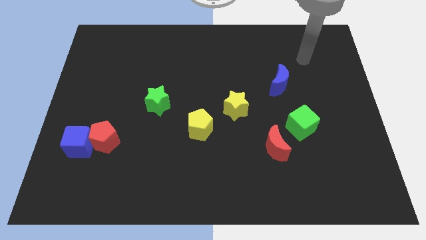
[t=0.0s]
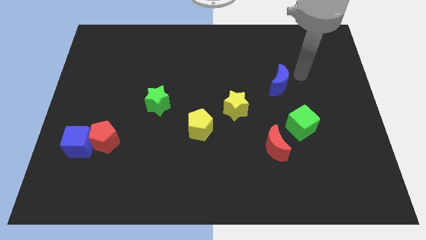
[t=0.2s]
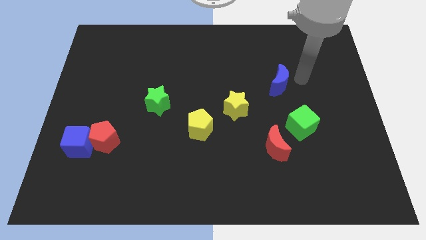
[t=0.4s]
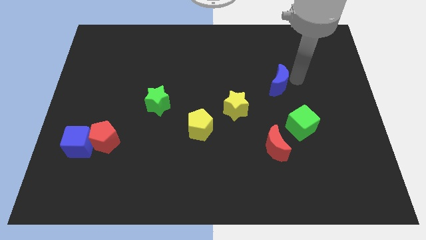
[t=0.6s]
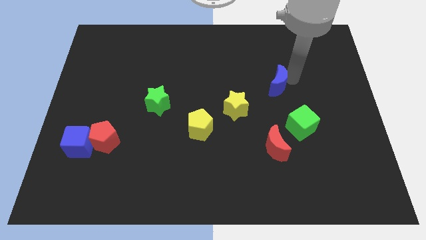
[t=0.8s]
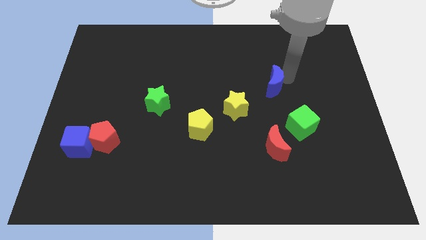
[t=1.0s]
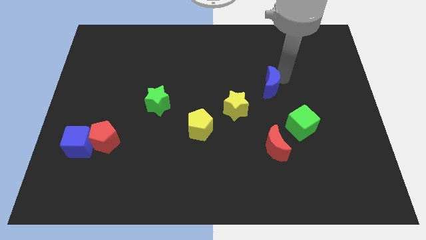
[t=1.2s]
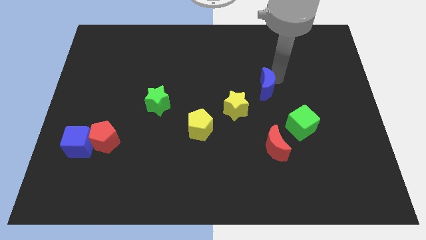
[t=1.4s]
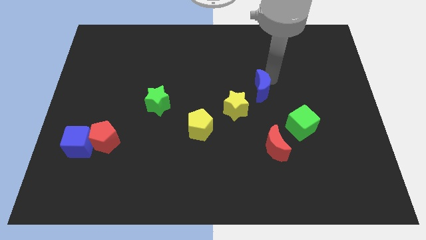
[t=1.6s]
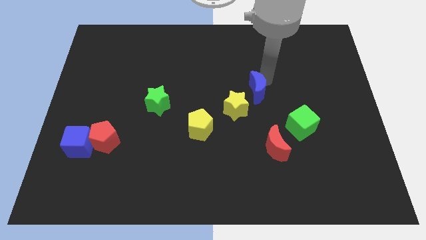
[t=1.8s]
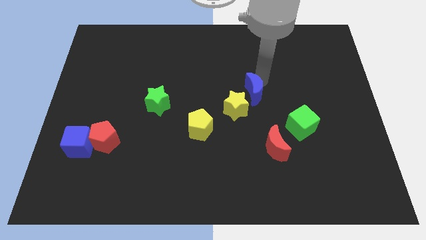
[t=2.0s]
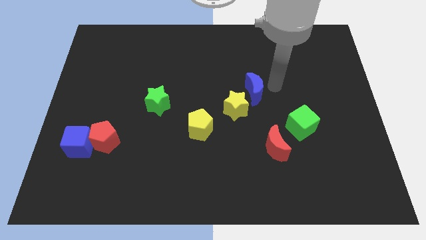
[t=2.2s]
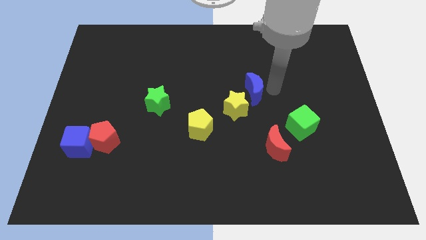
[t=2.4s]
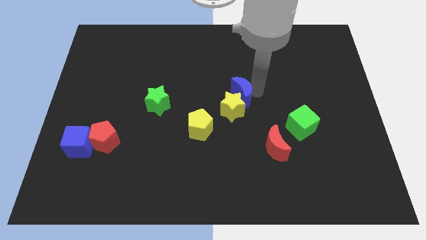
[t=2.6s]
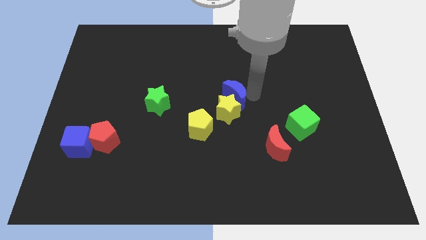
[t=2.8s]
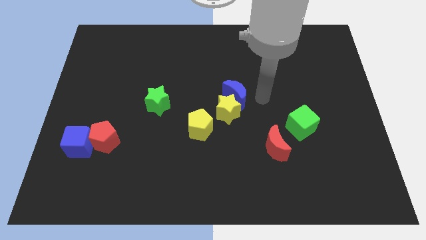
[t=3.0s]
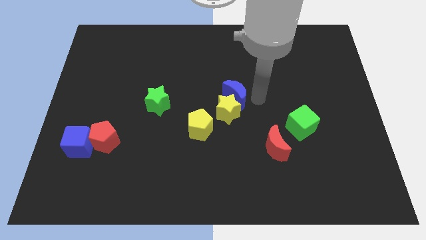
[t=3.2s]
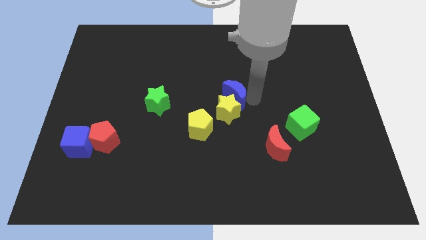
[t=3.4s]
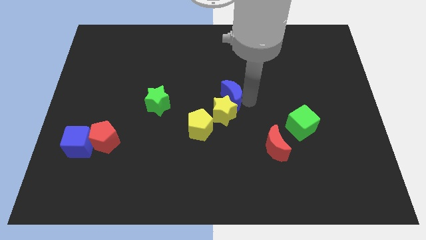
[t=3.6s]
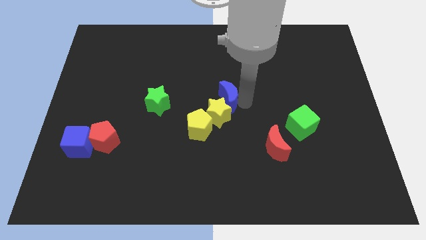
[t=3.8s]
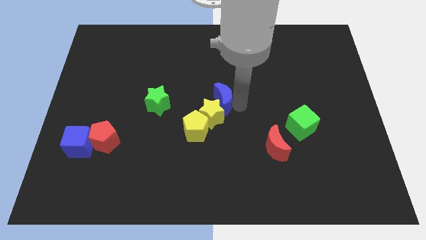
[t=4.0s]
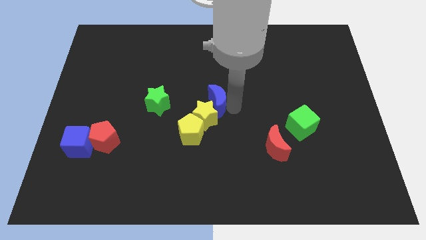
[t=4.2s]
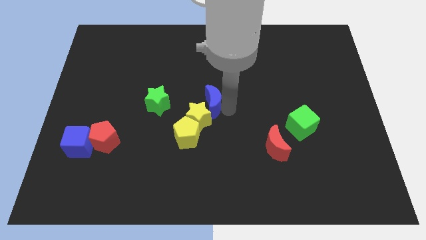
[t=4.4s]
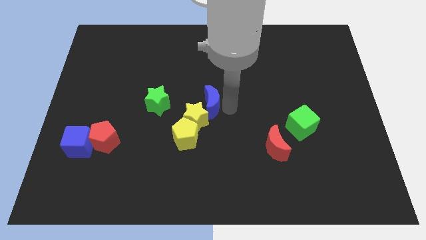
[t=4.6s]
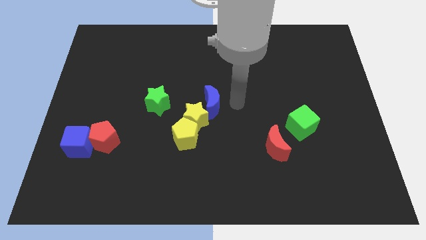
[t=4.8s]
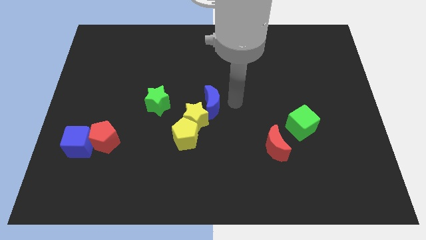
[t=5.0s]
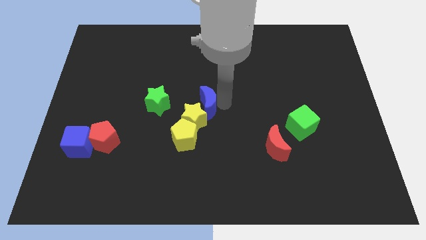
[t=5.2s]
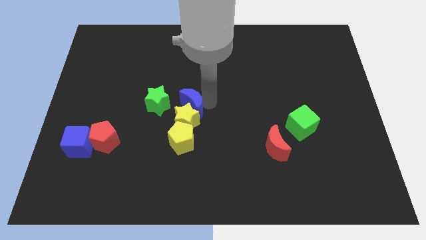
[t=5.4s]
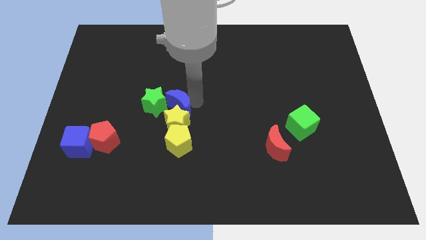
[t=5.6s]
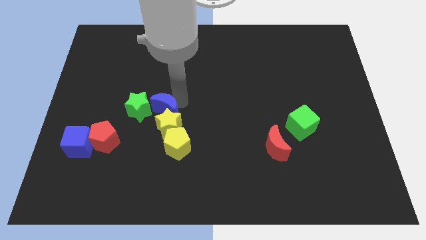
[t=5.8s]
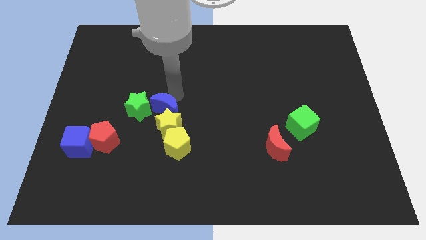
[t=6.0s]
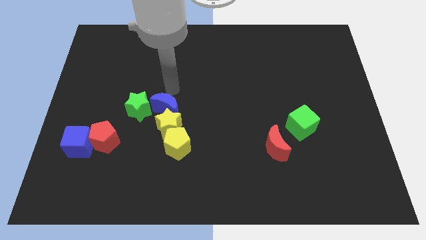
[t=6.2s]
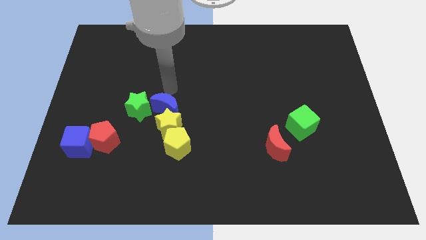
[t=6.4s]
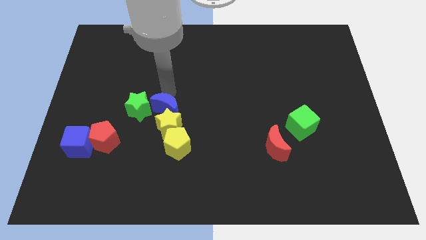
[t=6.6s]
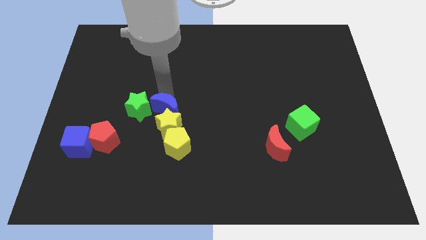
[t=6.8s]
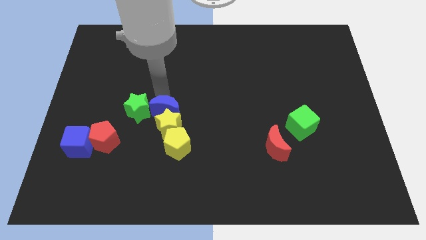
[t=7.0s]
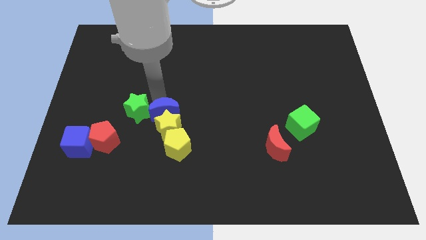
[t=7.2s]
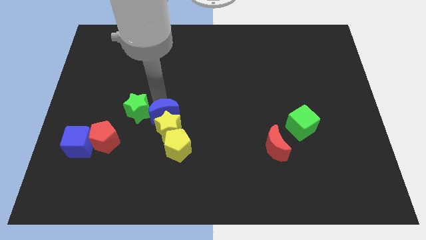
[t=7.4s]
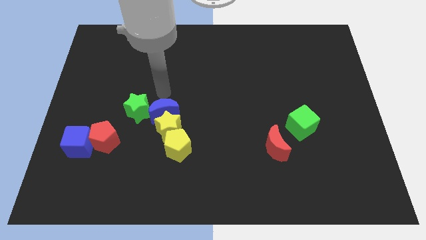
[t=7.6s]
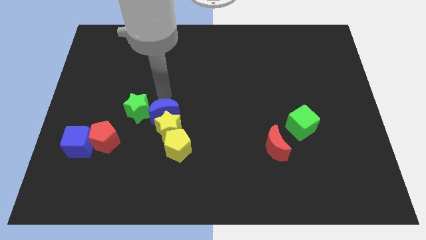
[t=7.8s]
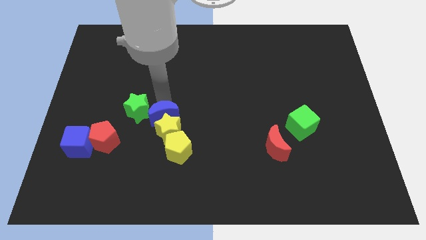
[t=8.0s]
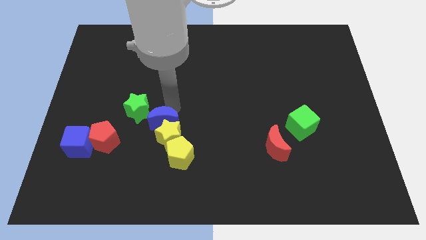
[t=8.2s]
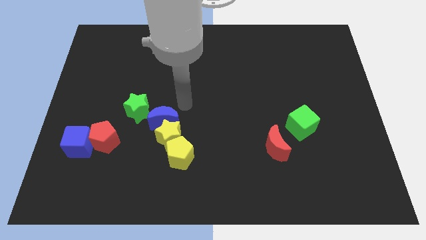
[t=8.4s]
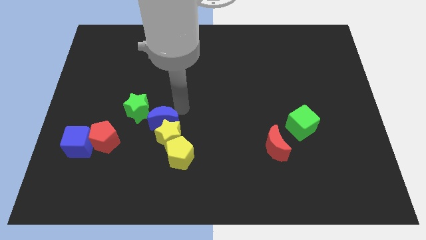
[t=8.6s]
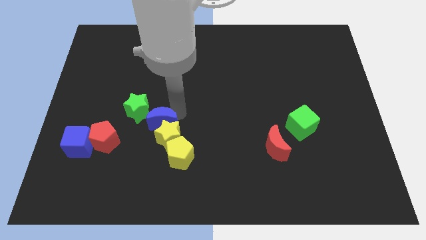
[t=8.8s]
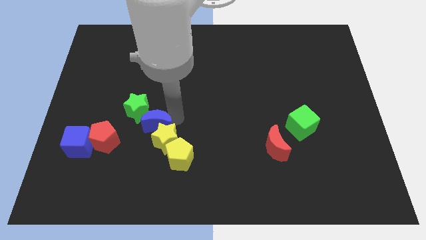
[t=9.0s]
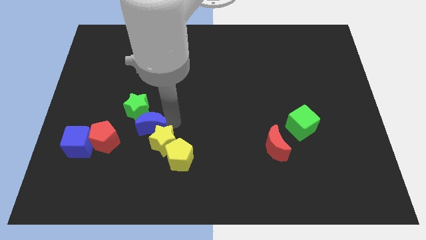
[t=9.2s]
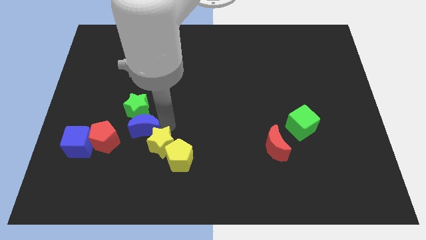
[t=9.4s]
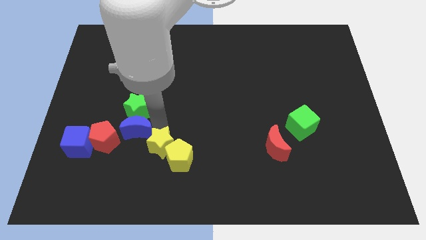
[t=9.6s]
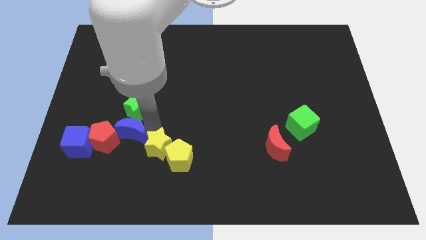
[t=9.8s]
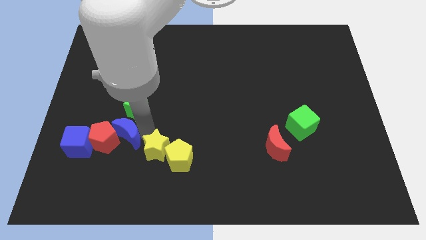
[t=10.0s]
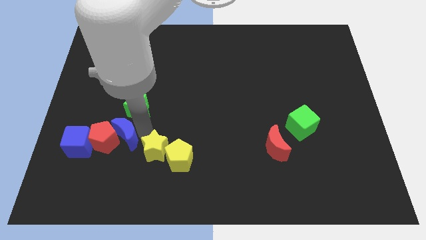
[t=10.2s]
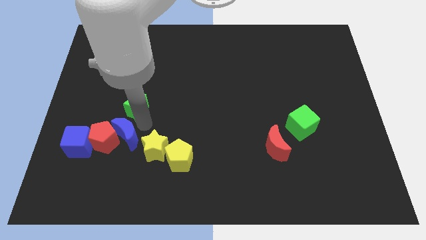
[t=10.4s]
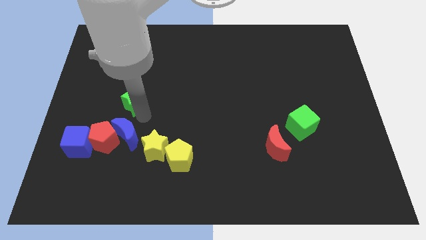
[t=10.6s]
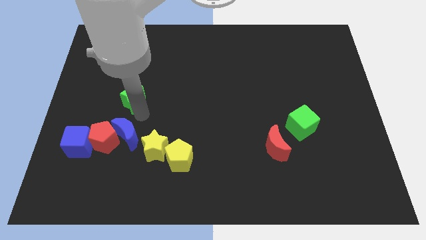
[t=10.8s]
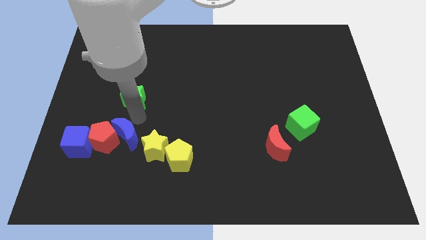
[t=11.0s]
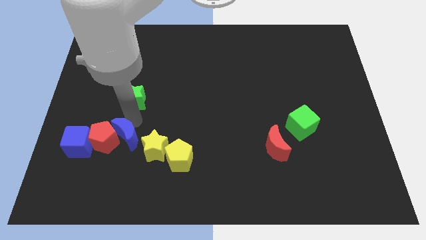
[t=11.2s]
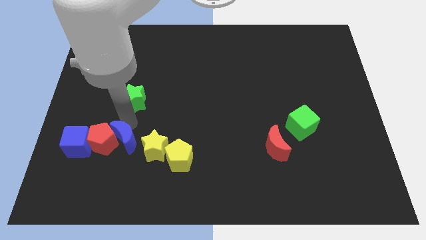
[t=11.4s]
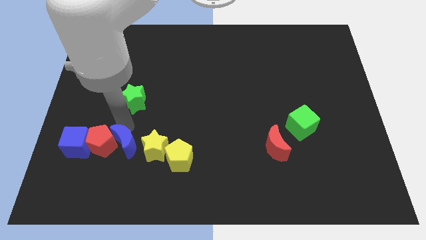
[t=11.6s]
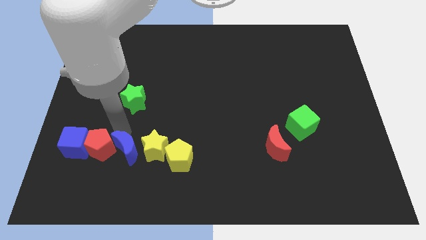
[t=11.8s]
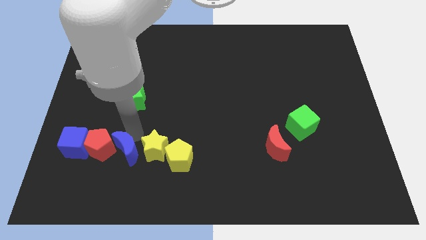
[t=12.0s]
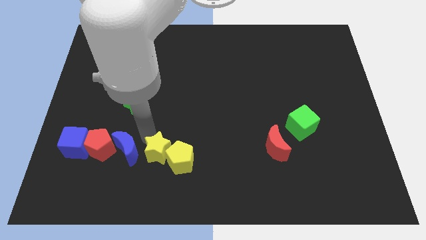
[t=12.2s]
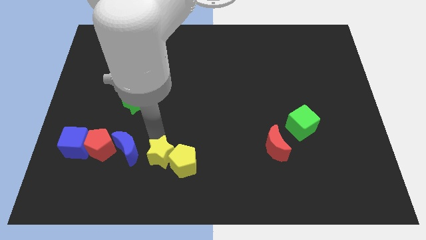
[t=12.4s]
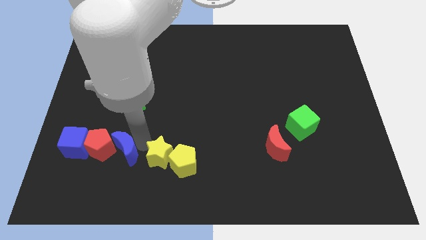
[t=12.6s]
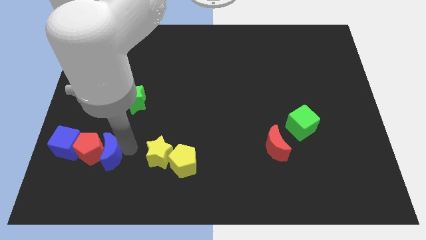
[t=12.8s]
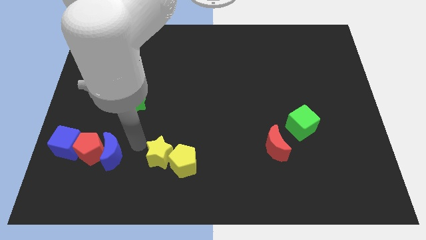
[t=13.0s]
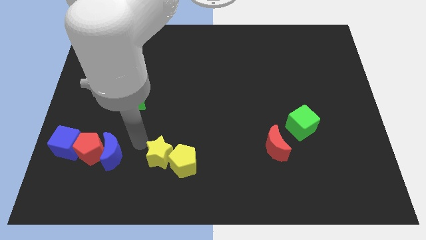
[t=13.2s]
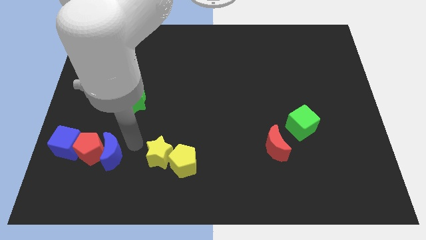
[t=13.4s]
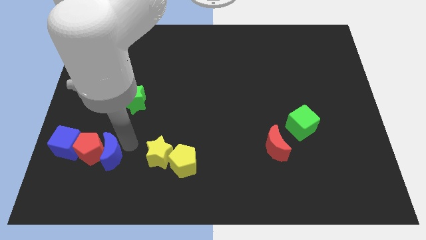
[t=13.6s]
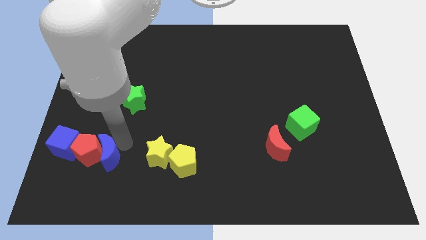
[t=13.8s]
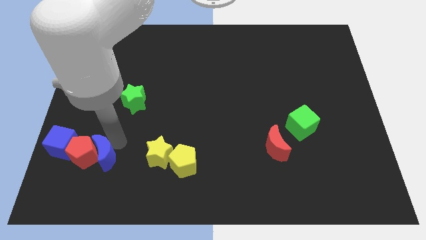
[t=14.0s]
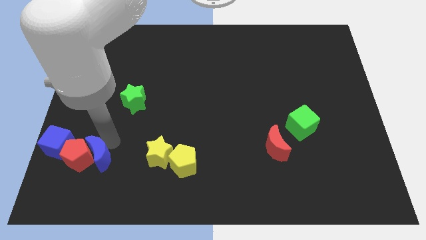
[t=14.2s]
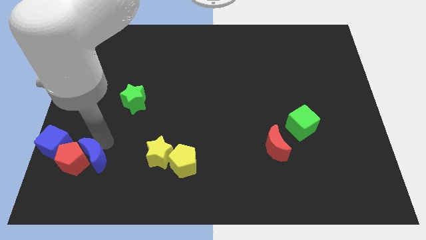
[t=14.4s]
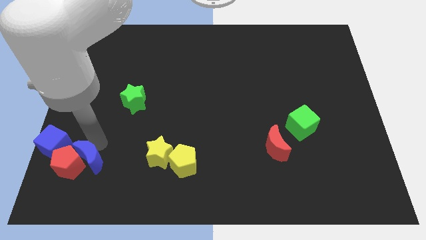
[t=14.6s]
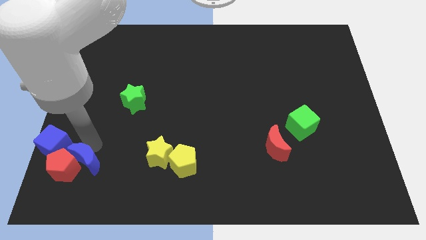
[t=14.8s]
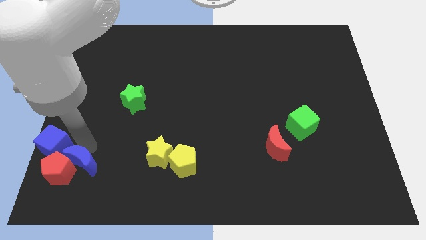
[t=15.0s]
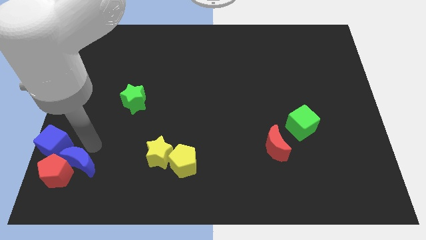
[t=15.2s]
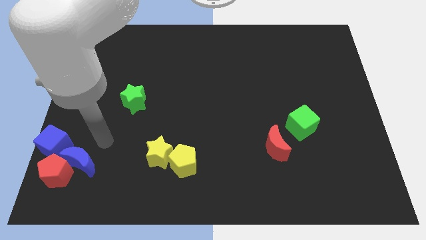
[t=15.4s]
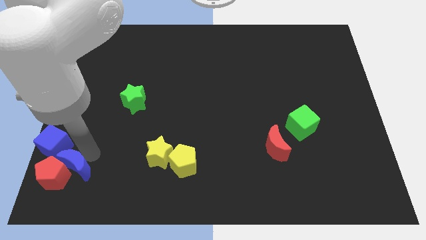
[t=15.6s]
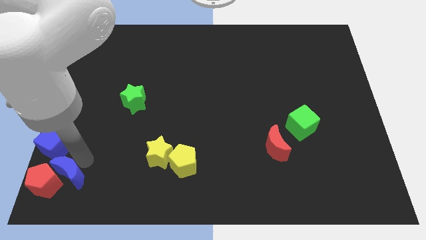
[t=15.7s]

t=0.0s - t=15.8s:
put the blue moon to the lower left corner
